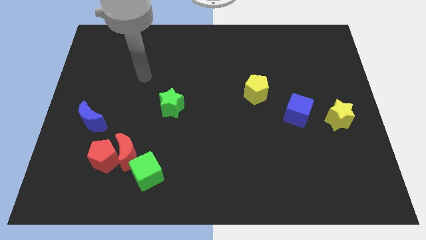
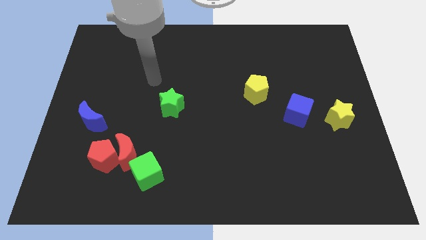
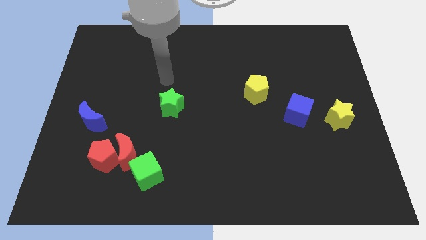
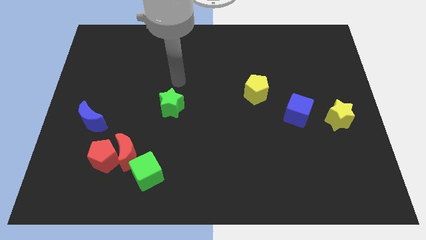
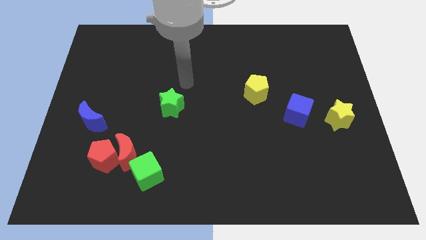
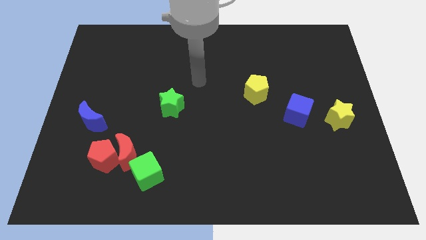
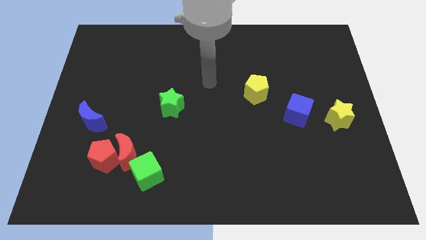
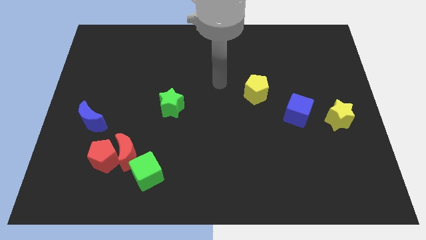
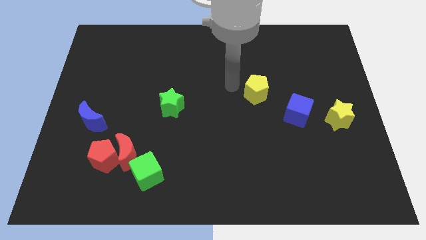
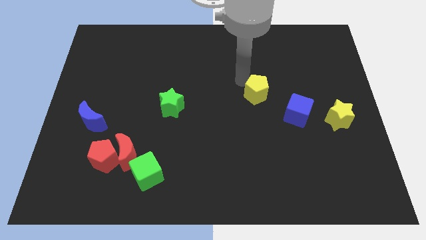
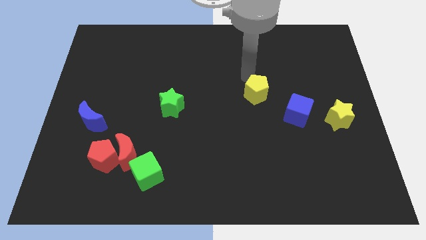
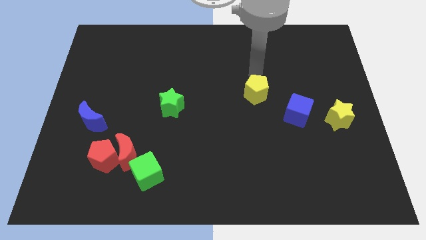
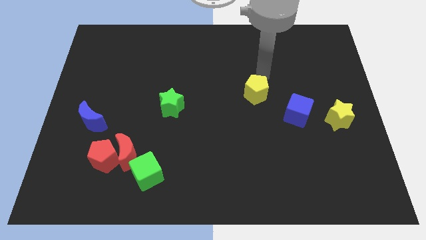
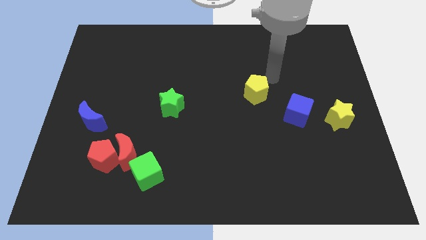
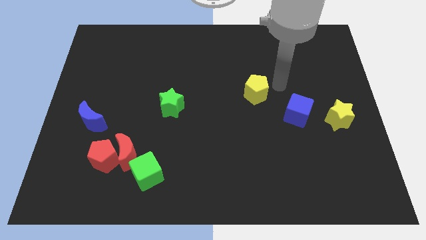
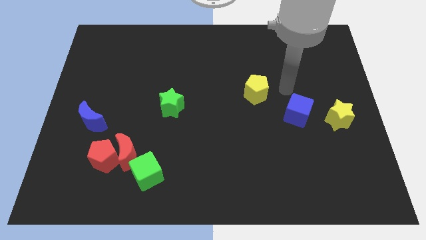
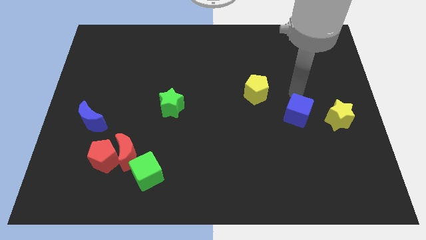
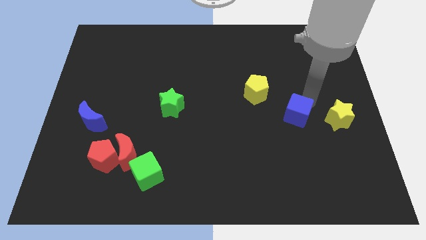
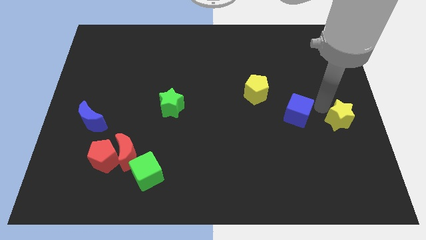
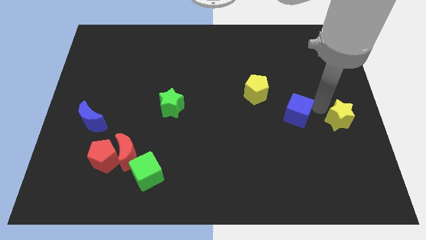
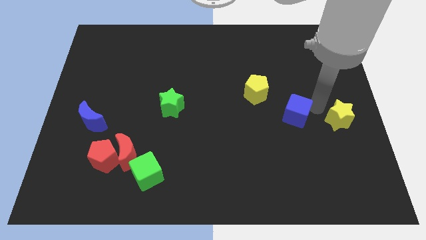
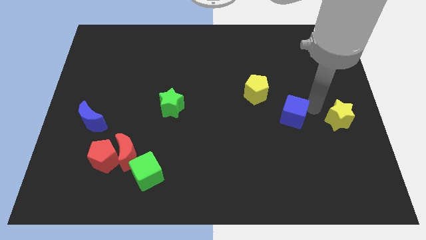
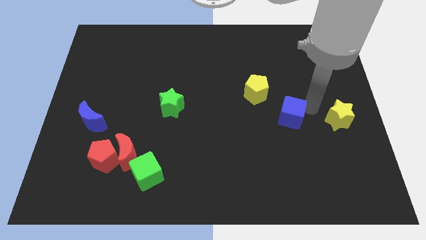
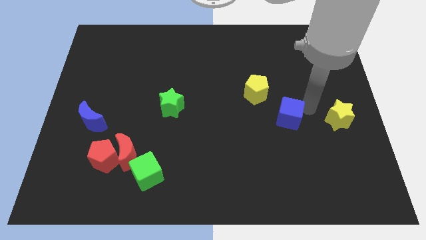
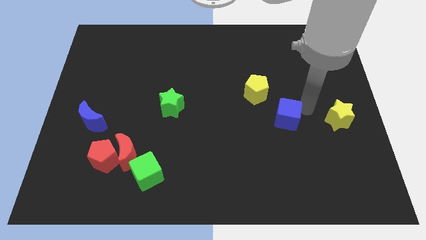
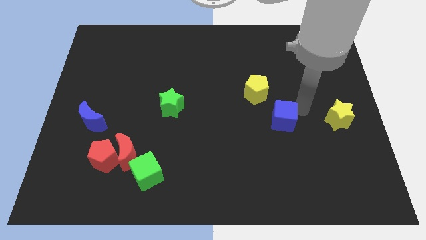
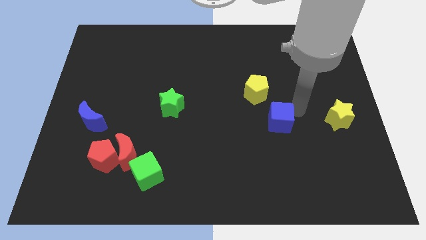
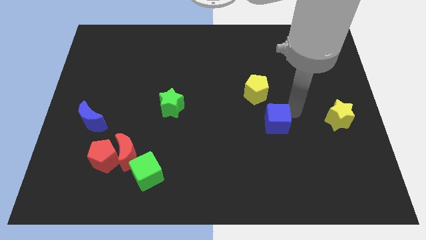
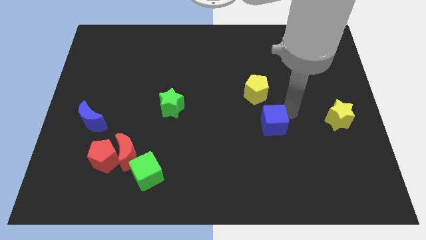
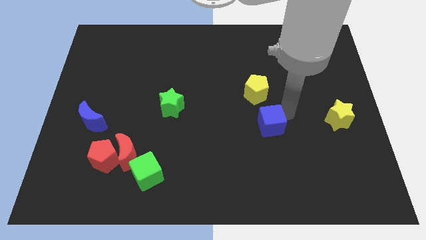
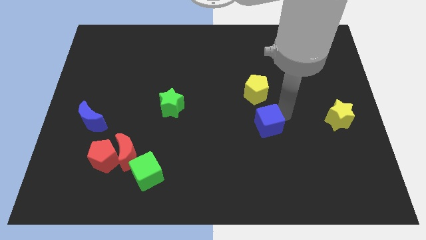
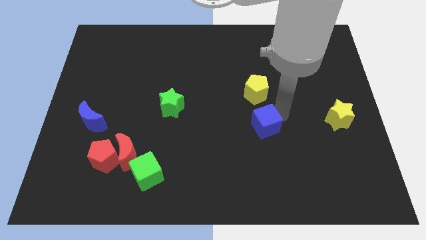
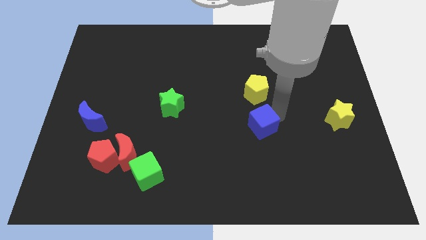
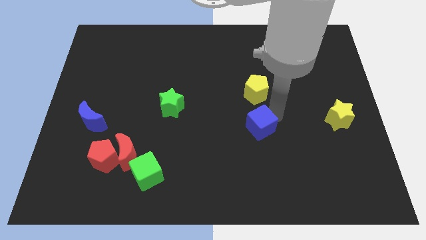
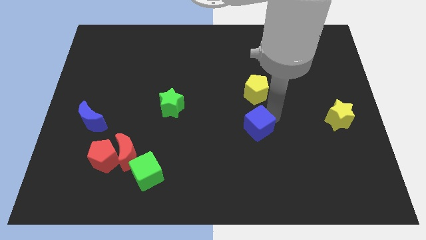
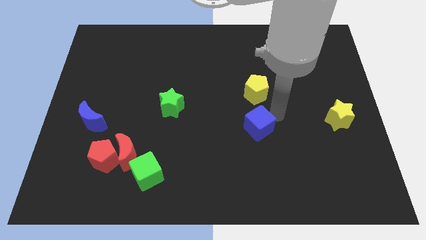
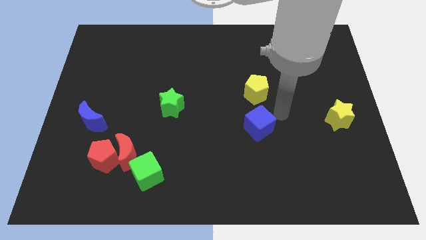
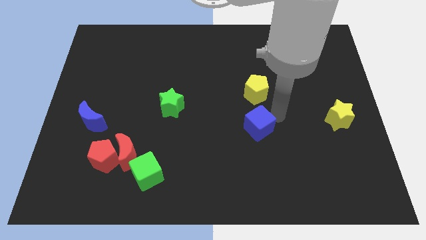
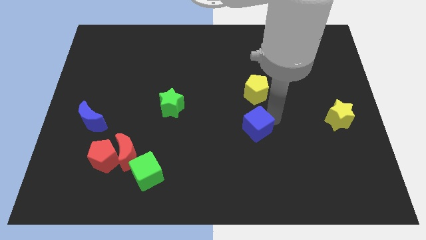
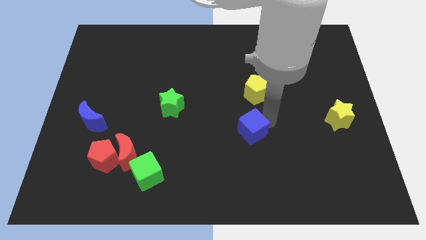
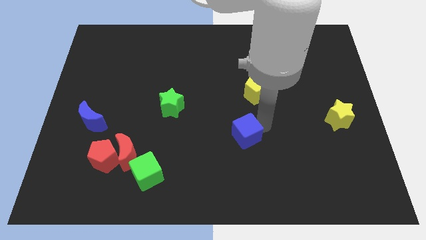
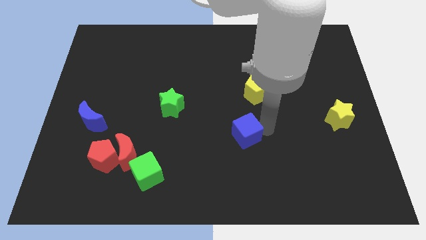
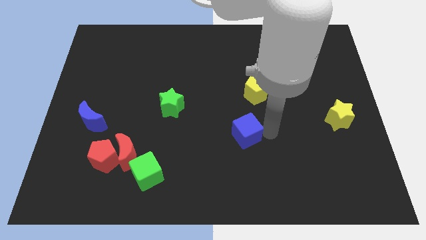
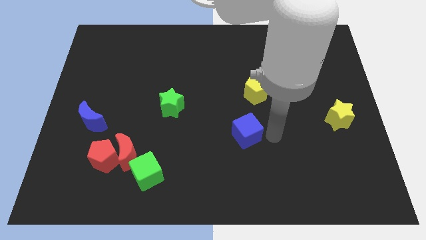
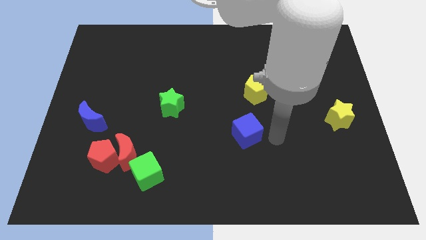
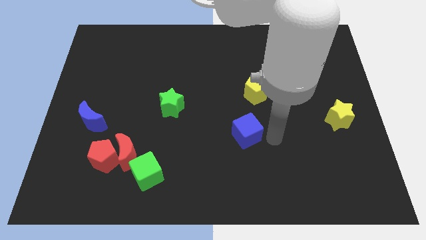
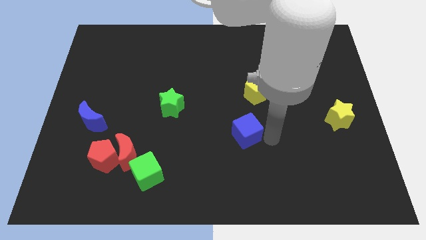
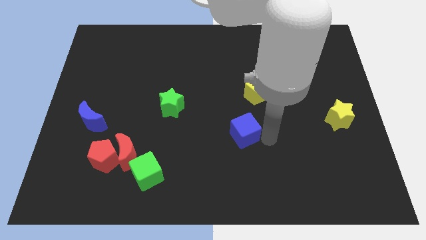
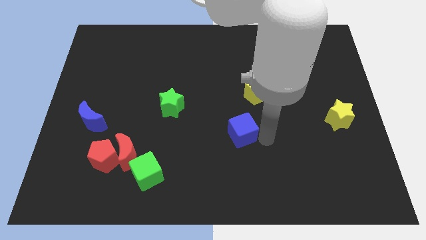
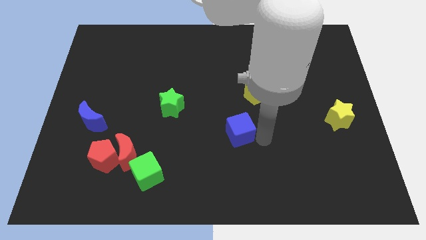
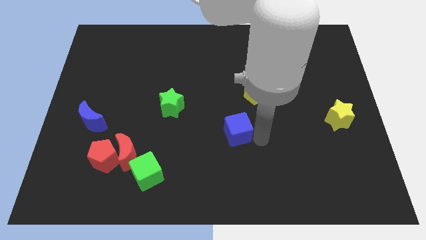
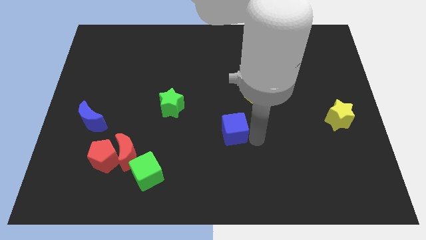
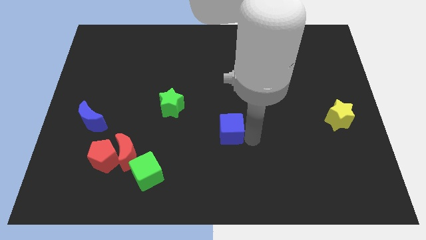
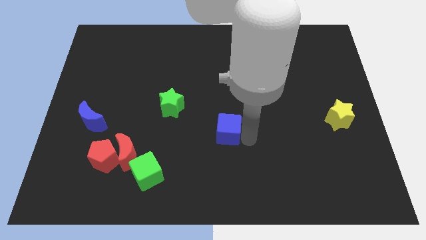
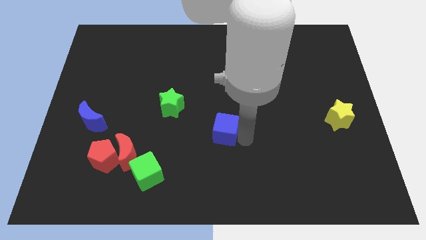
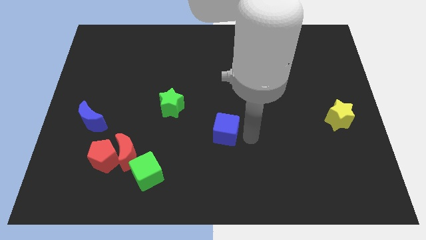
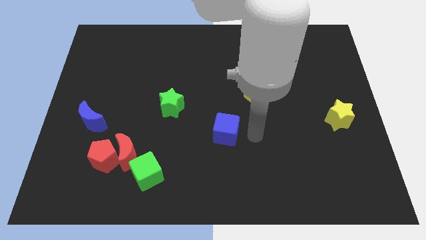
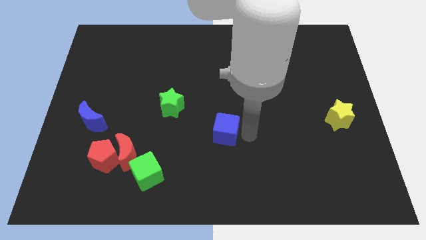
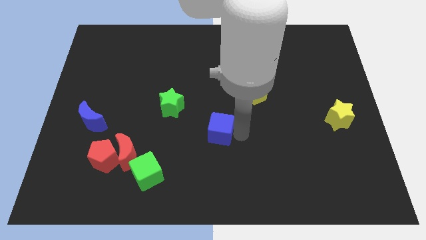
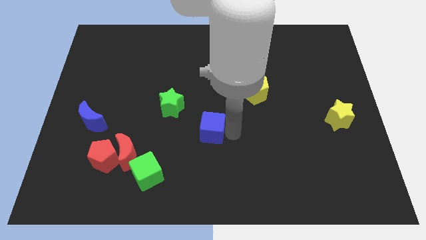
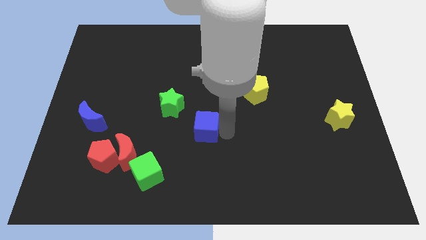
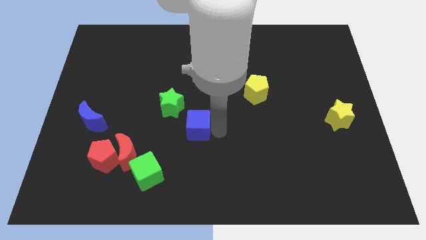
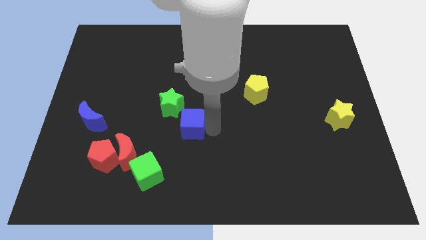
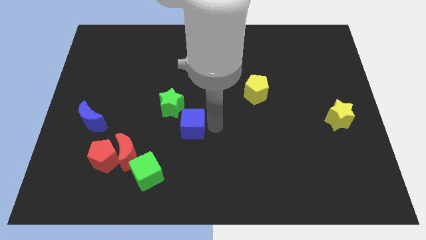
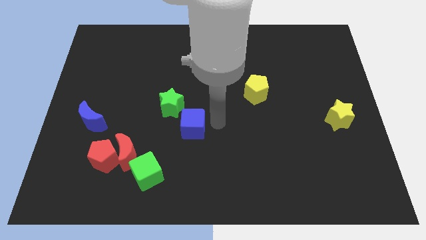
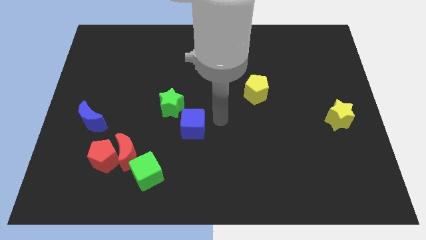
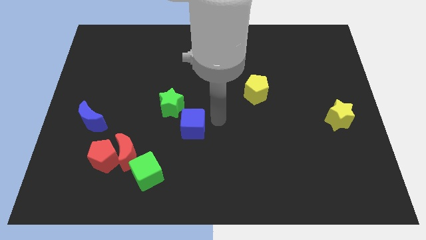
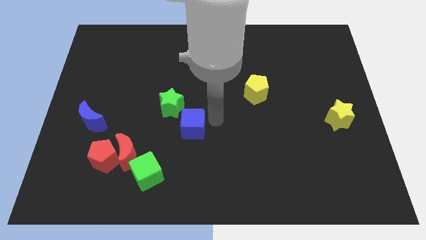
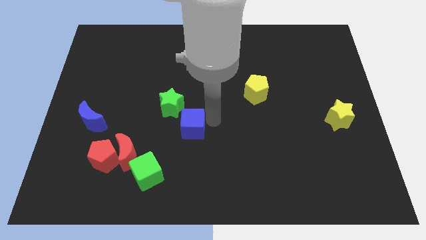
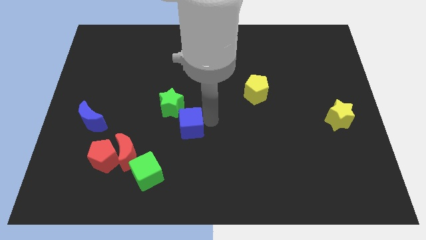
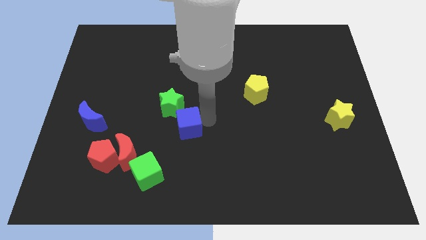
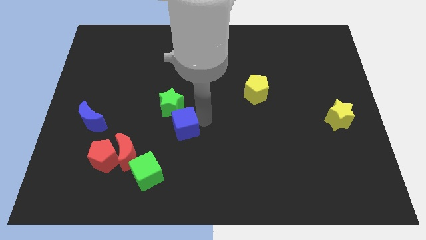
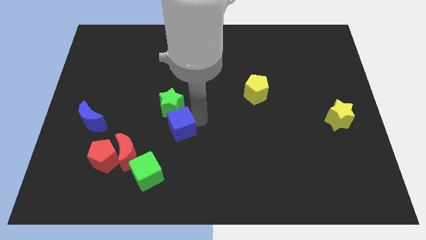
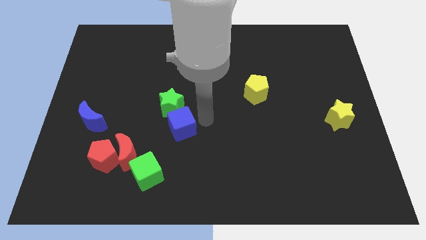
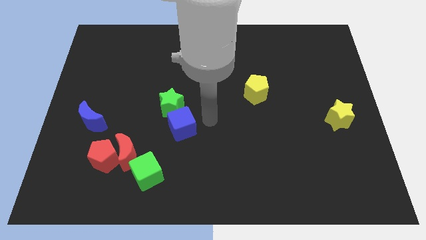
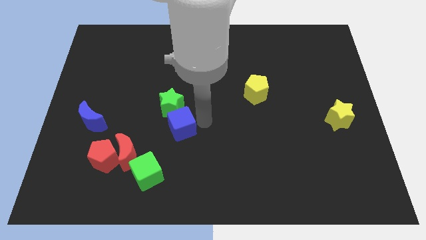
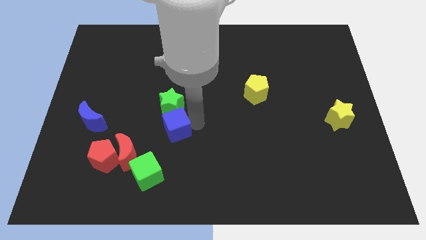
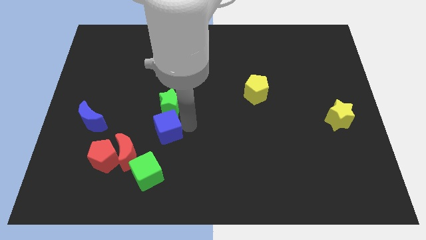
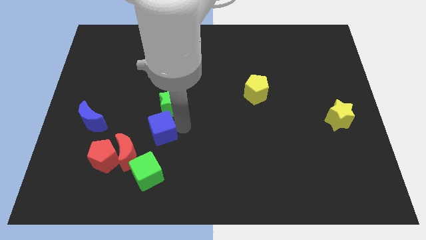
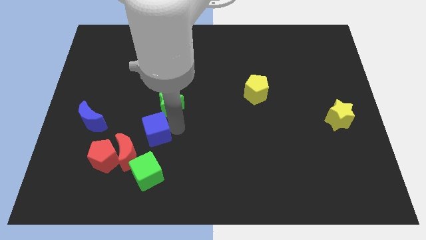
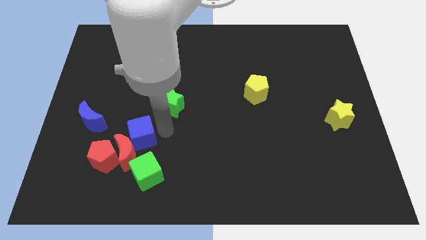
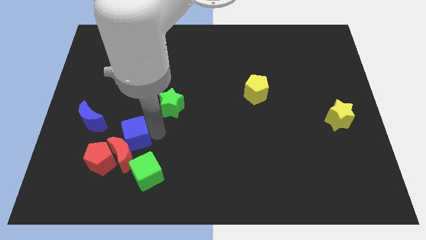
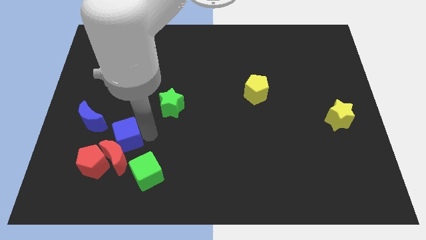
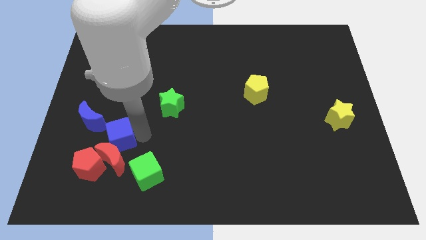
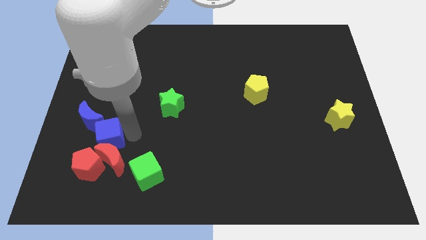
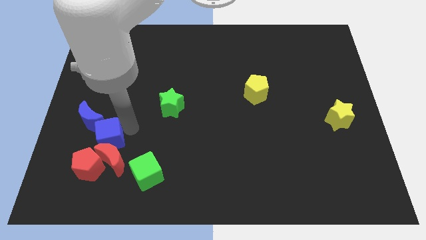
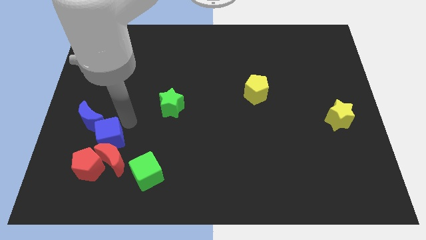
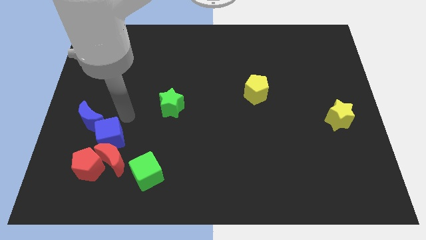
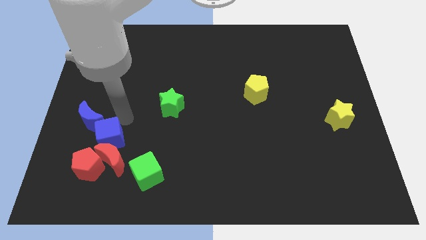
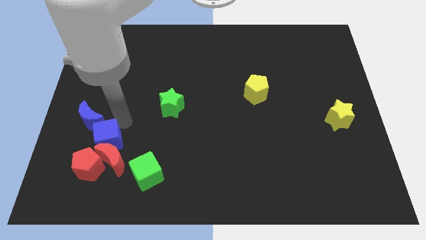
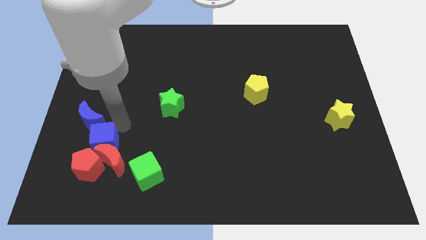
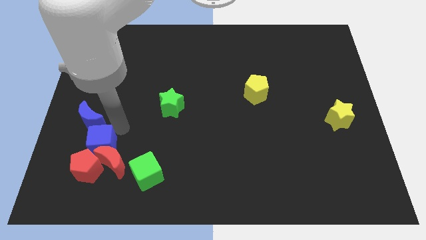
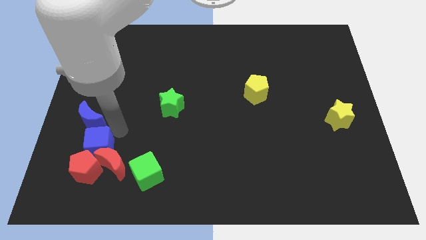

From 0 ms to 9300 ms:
push the blue cube towards the red pentagon
